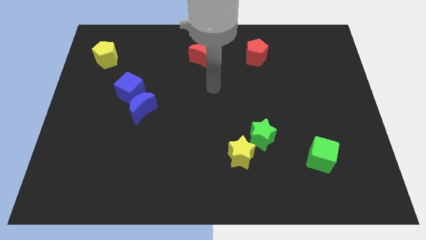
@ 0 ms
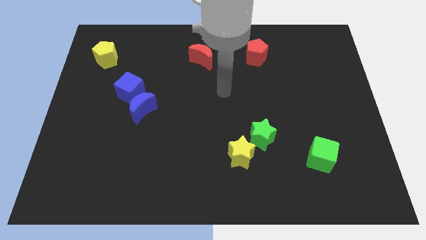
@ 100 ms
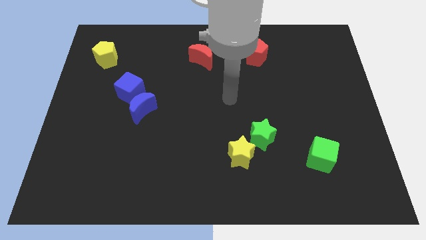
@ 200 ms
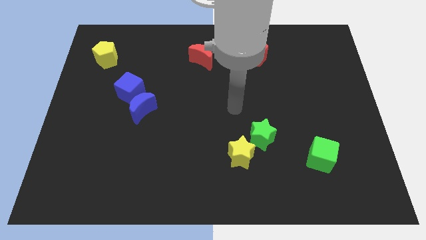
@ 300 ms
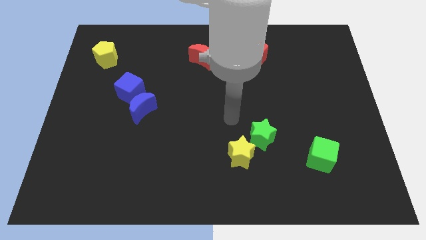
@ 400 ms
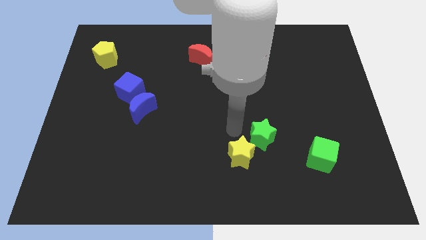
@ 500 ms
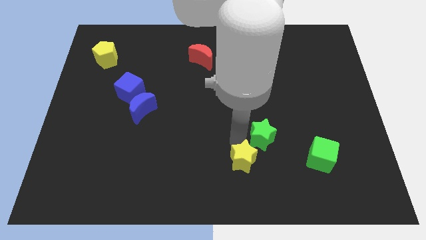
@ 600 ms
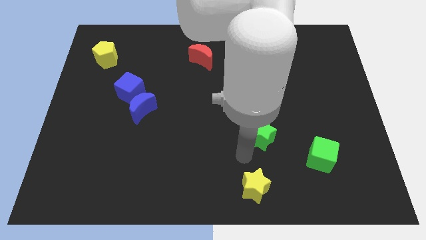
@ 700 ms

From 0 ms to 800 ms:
separate the green star from the yellow star

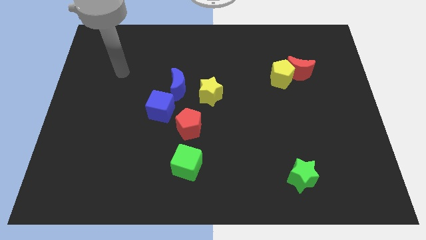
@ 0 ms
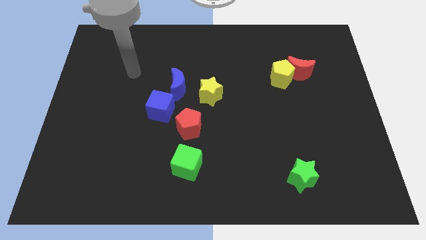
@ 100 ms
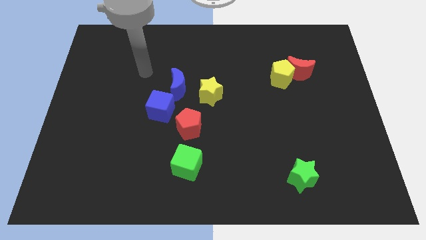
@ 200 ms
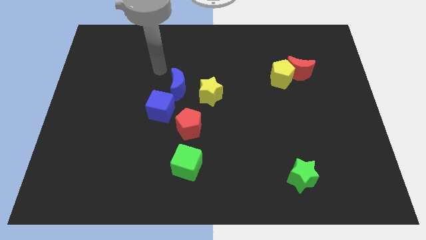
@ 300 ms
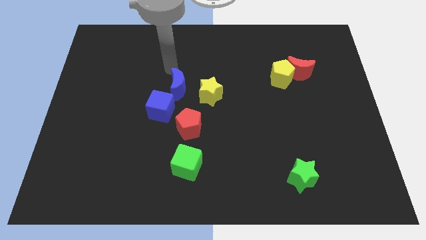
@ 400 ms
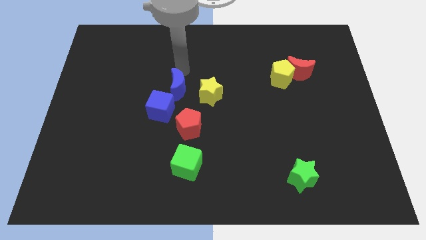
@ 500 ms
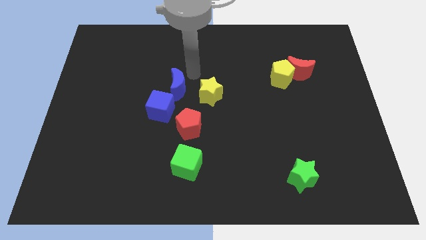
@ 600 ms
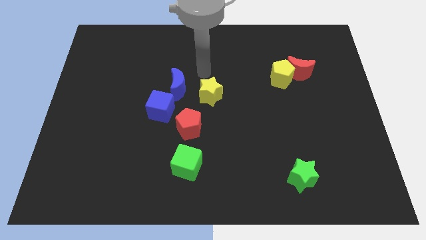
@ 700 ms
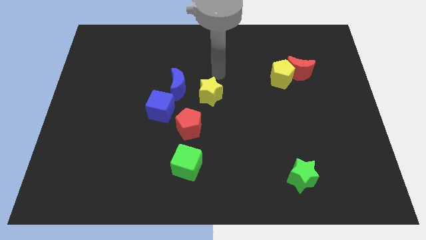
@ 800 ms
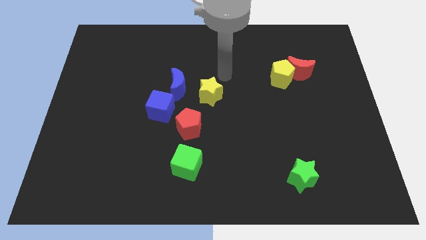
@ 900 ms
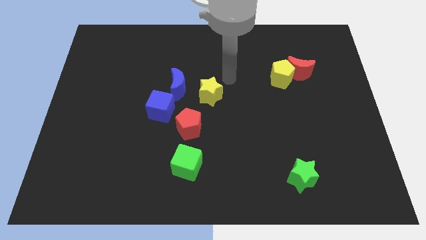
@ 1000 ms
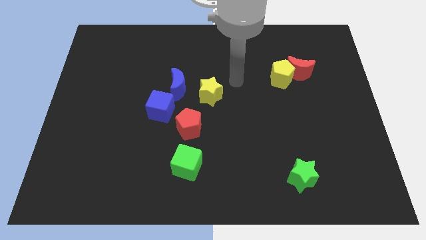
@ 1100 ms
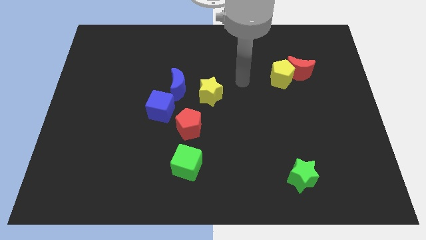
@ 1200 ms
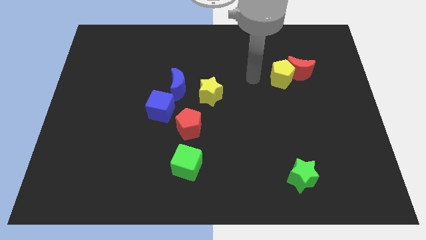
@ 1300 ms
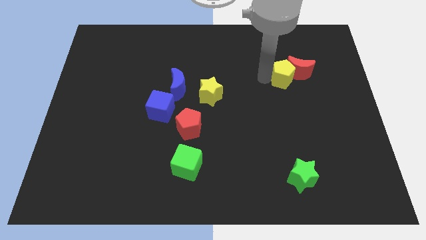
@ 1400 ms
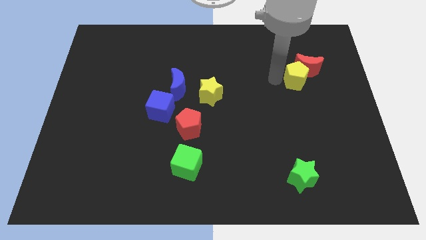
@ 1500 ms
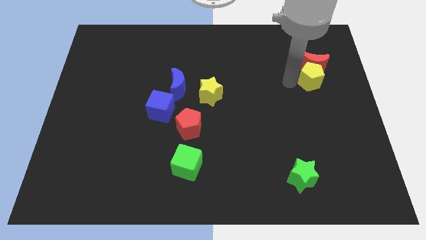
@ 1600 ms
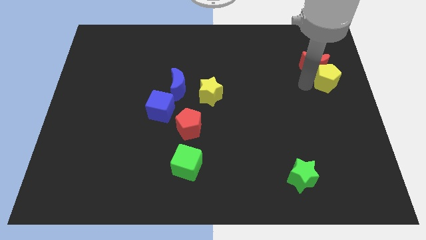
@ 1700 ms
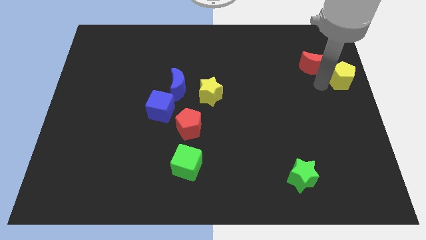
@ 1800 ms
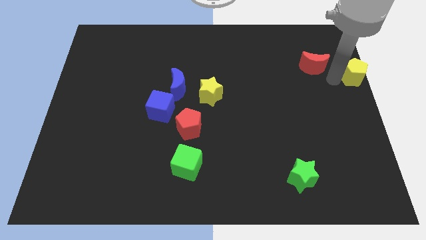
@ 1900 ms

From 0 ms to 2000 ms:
pull the red moon apart from the yellow pentagon

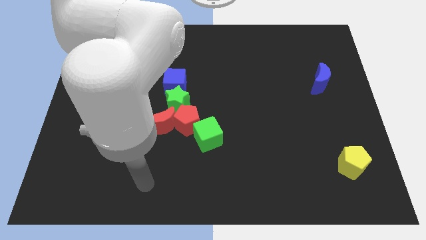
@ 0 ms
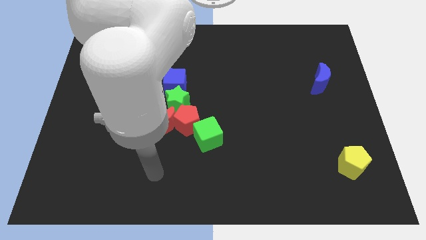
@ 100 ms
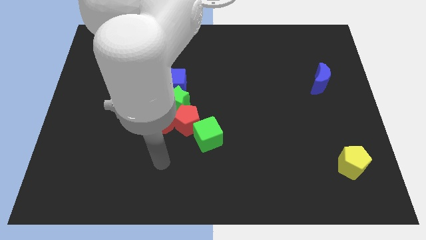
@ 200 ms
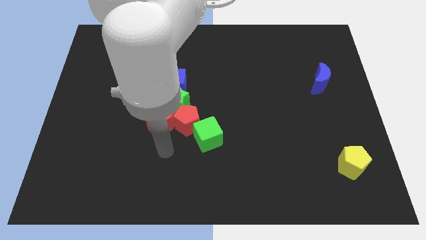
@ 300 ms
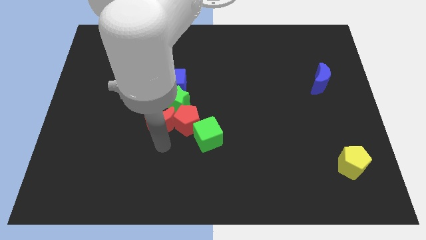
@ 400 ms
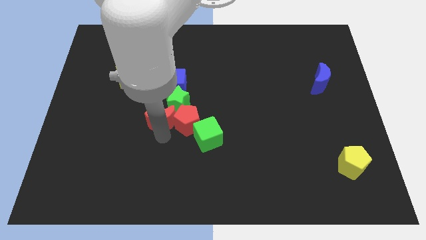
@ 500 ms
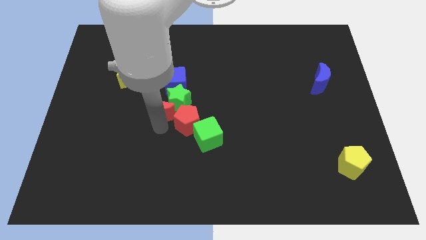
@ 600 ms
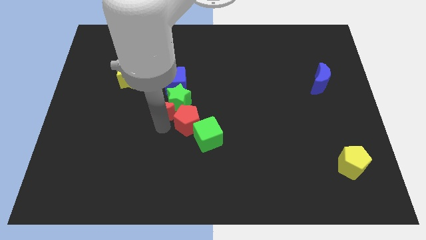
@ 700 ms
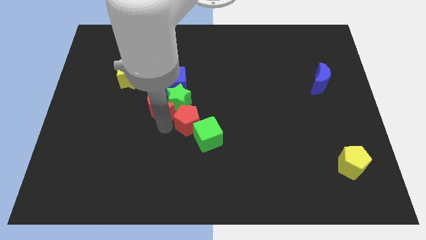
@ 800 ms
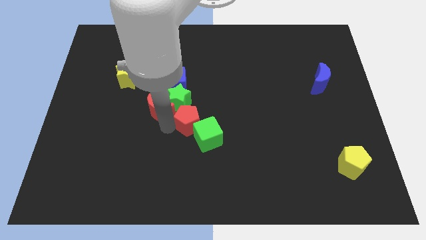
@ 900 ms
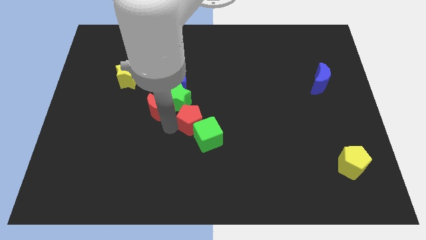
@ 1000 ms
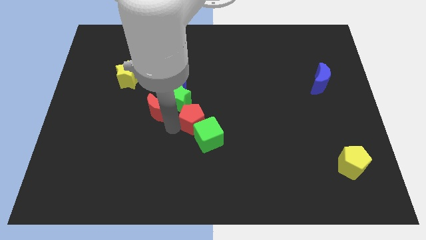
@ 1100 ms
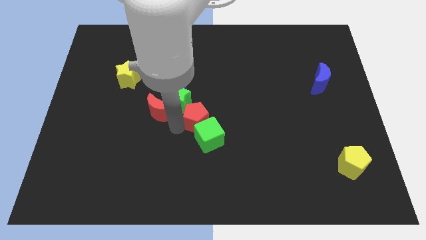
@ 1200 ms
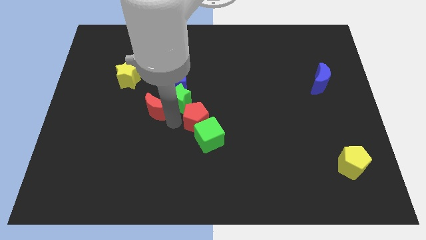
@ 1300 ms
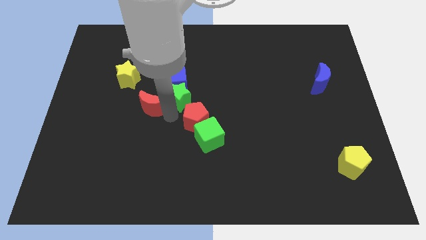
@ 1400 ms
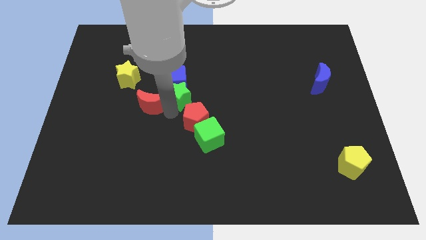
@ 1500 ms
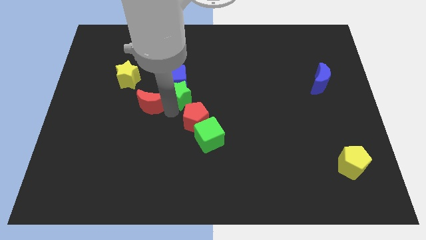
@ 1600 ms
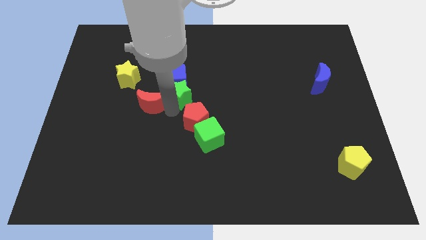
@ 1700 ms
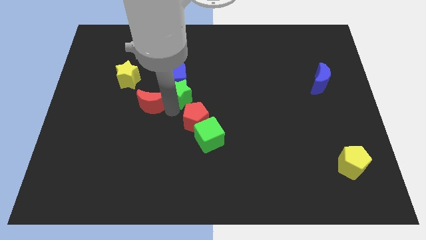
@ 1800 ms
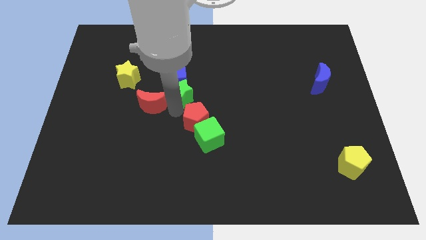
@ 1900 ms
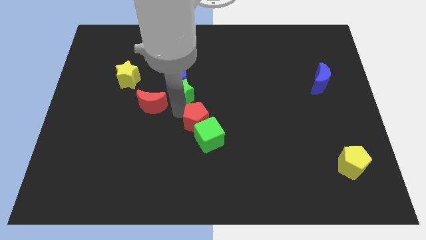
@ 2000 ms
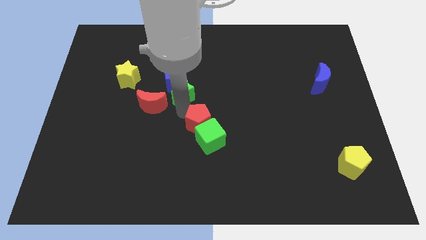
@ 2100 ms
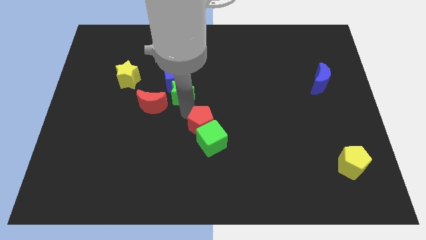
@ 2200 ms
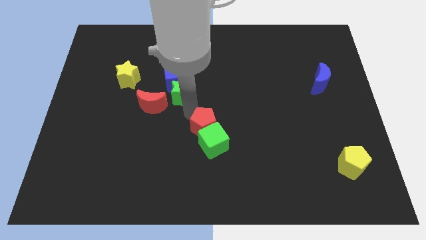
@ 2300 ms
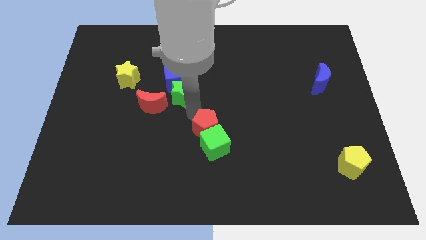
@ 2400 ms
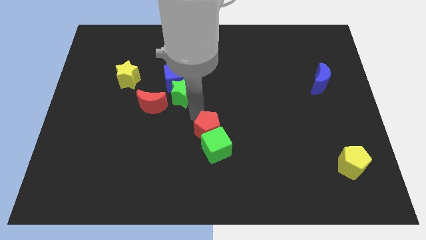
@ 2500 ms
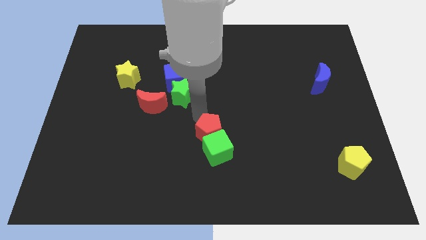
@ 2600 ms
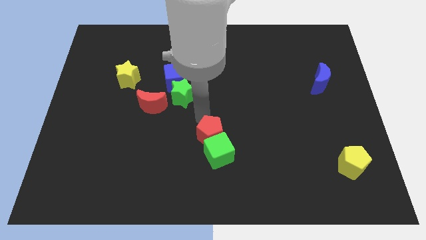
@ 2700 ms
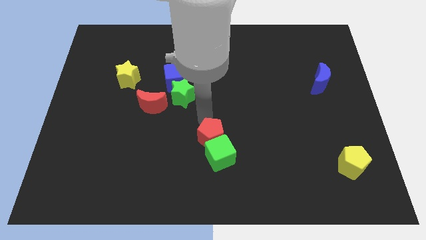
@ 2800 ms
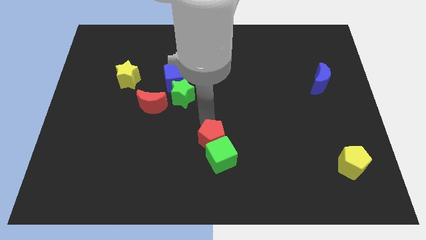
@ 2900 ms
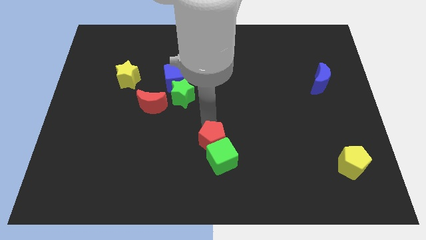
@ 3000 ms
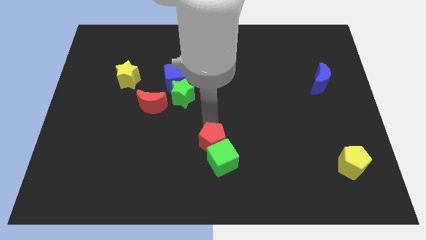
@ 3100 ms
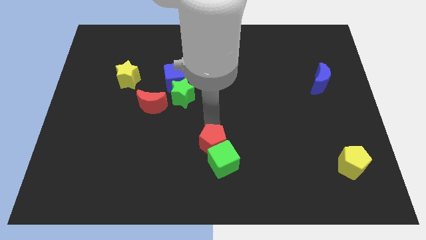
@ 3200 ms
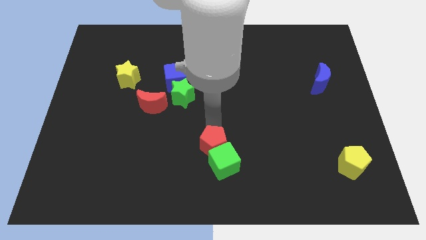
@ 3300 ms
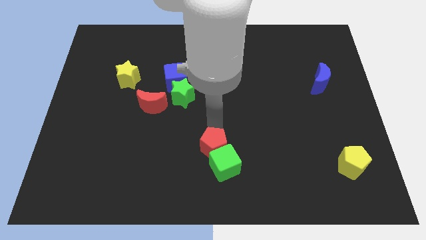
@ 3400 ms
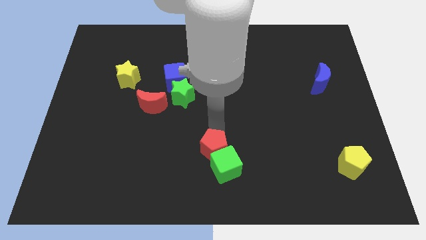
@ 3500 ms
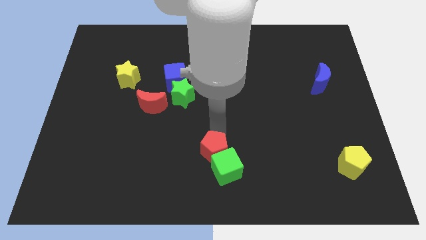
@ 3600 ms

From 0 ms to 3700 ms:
move the red pentagon away from the group

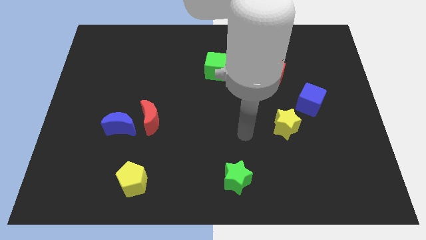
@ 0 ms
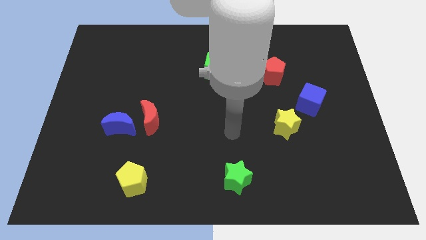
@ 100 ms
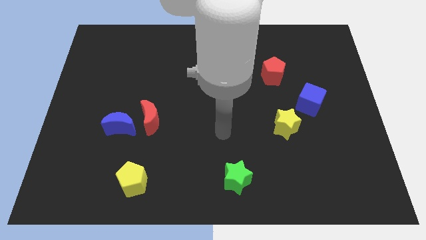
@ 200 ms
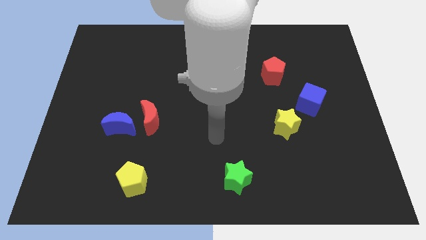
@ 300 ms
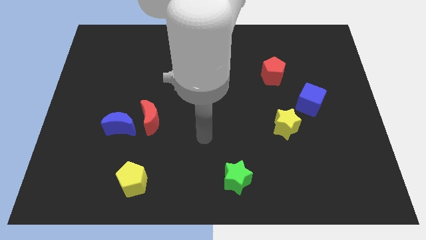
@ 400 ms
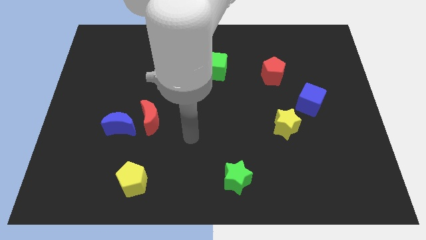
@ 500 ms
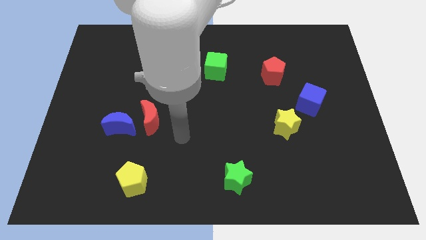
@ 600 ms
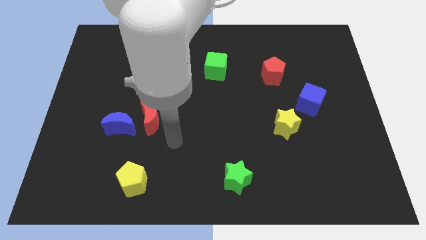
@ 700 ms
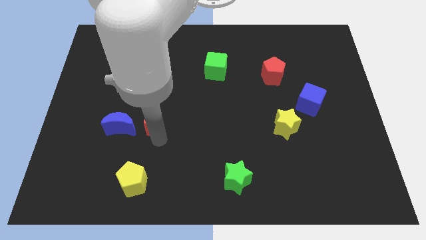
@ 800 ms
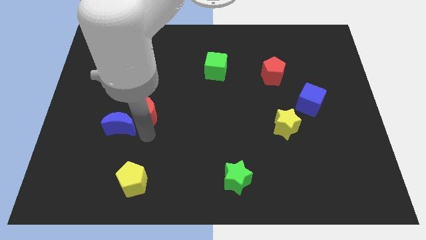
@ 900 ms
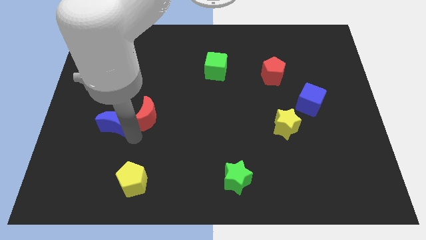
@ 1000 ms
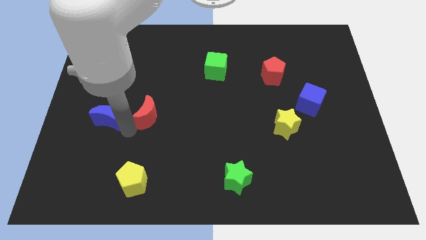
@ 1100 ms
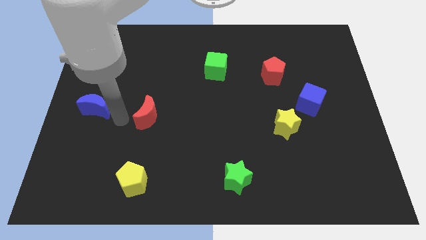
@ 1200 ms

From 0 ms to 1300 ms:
move the red moon away from the blue moon

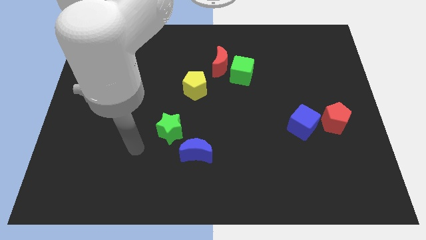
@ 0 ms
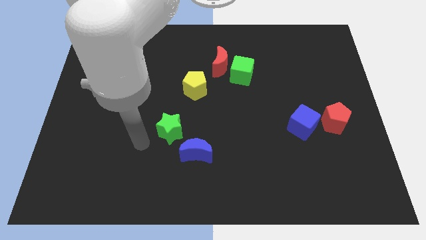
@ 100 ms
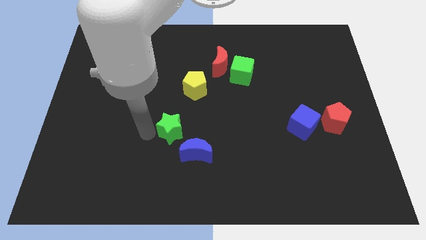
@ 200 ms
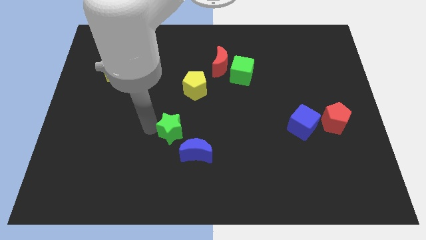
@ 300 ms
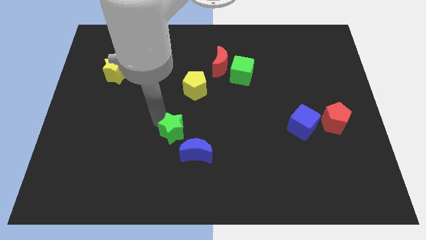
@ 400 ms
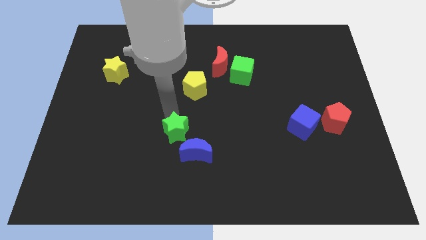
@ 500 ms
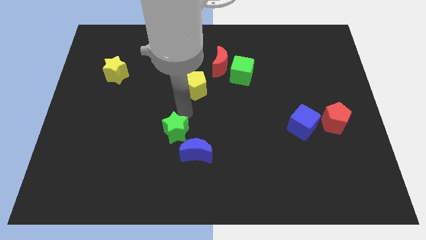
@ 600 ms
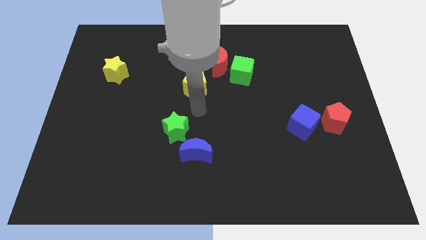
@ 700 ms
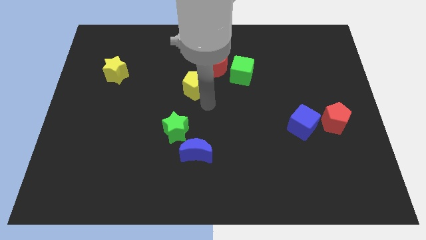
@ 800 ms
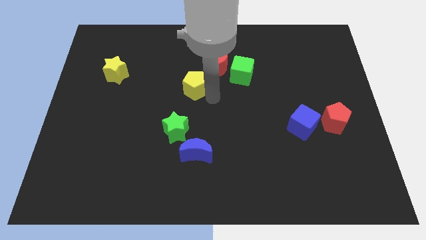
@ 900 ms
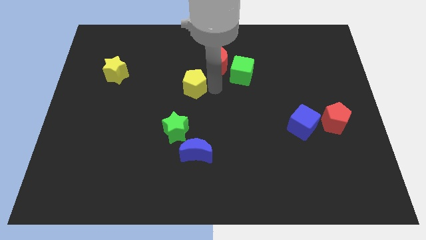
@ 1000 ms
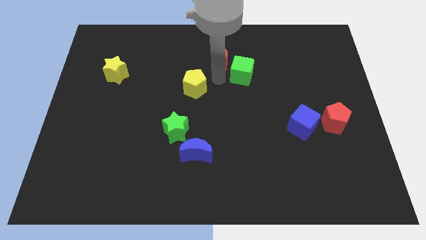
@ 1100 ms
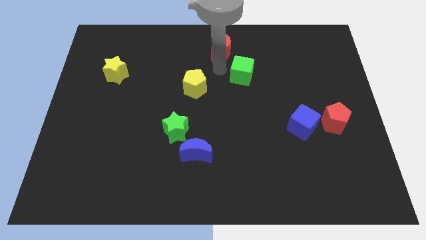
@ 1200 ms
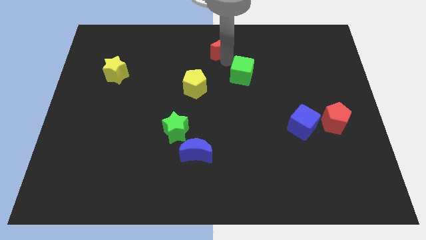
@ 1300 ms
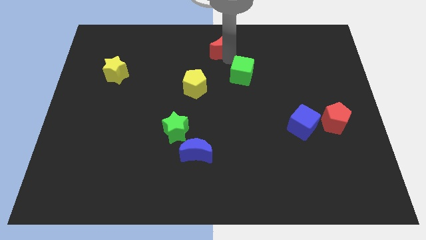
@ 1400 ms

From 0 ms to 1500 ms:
separate the green cube from the red moon

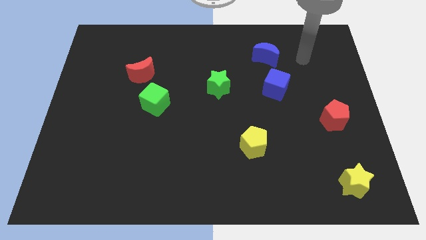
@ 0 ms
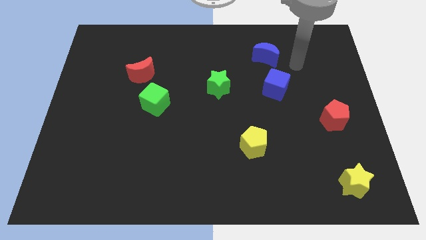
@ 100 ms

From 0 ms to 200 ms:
pull the red moon apart from the green cube
